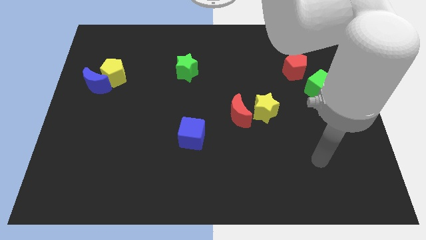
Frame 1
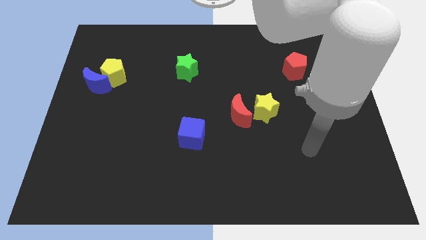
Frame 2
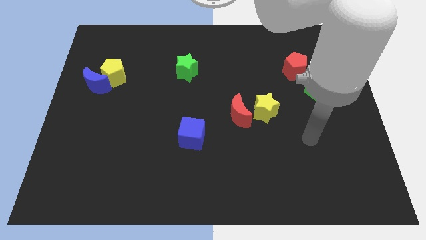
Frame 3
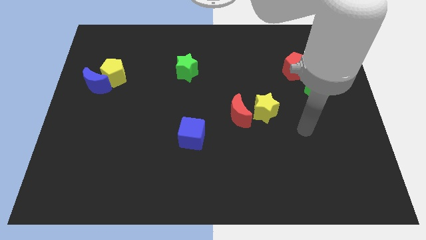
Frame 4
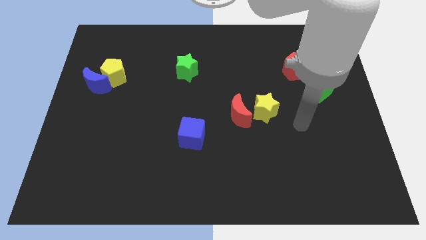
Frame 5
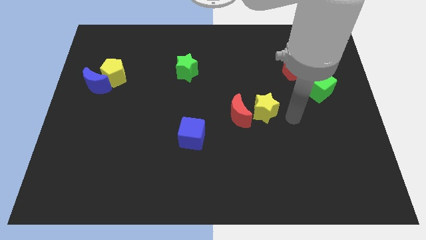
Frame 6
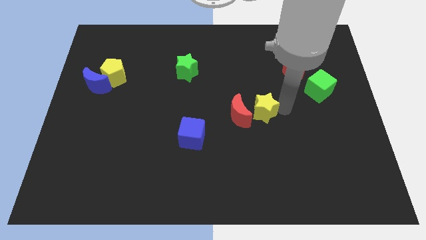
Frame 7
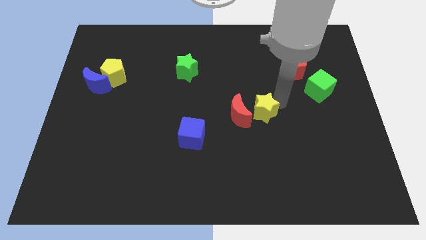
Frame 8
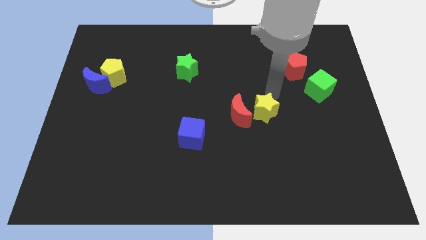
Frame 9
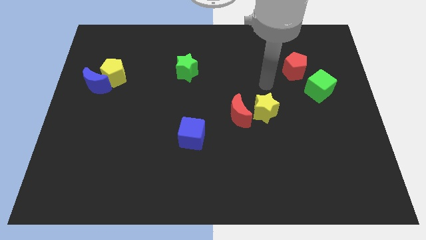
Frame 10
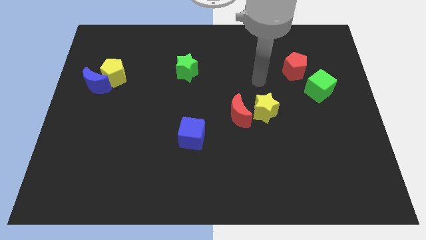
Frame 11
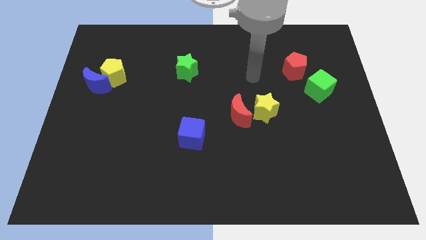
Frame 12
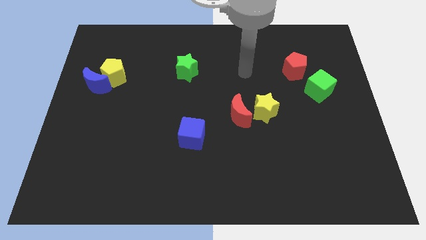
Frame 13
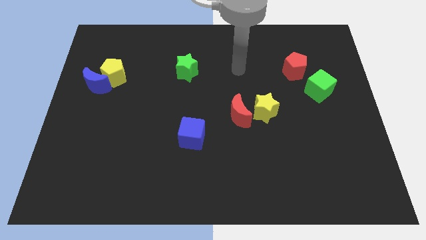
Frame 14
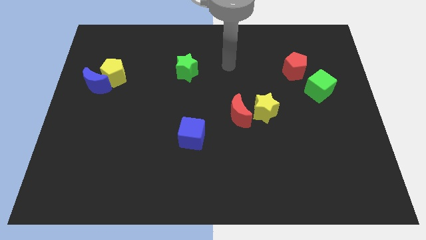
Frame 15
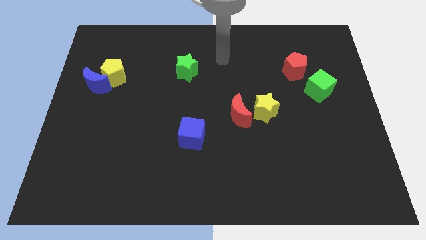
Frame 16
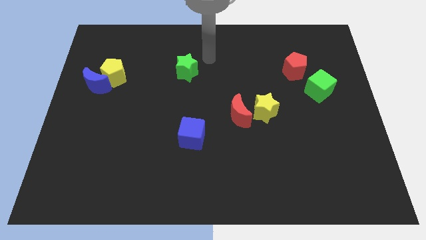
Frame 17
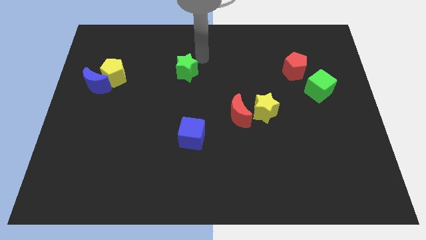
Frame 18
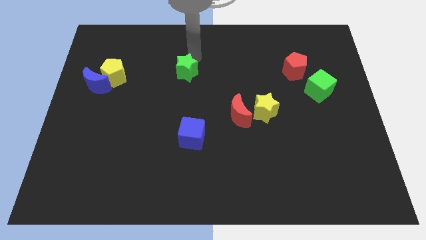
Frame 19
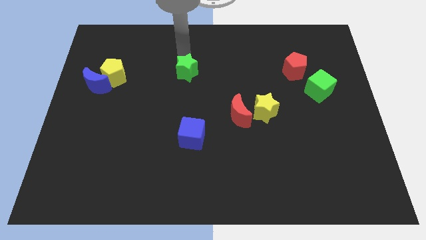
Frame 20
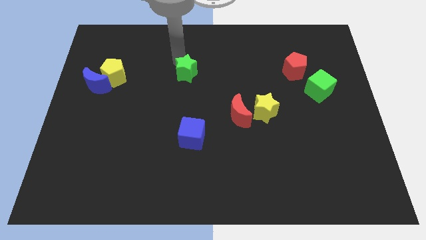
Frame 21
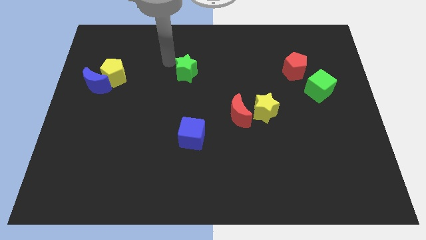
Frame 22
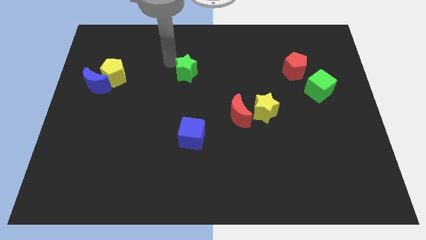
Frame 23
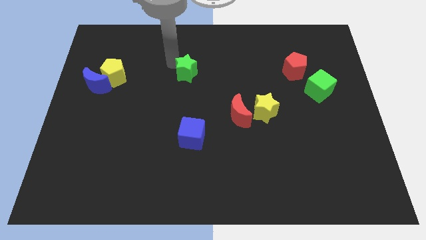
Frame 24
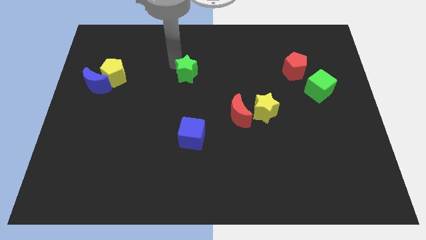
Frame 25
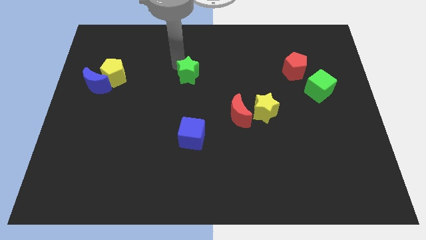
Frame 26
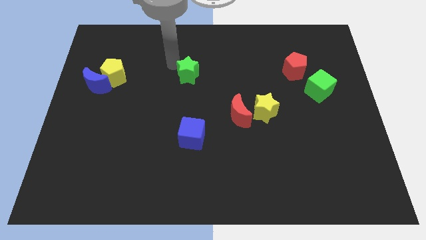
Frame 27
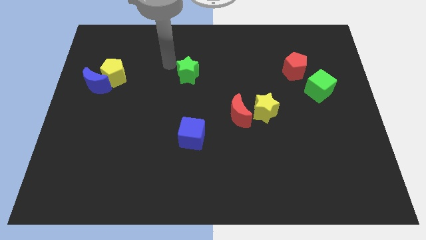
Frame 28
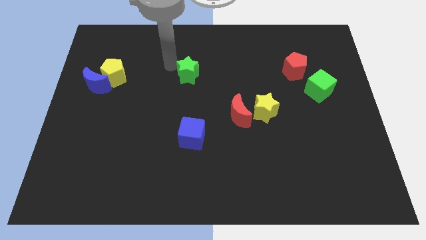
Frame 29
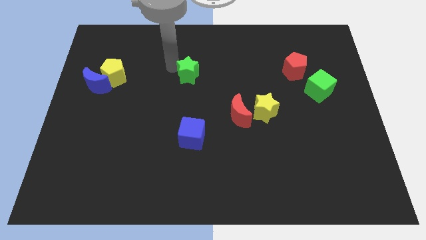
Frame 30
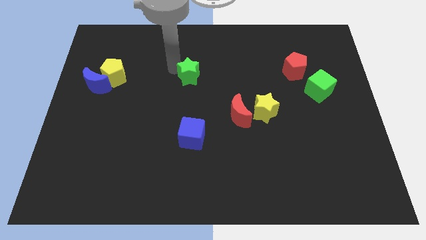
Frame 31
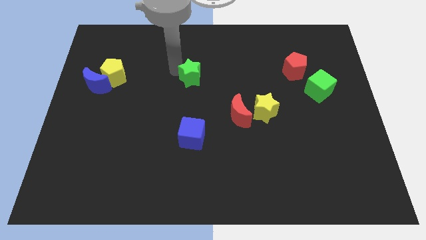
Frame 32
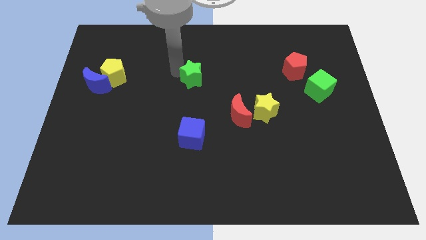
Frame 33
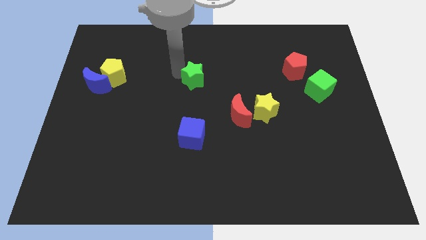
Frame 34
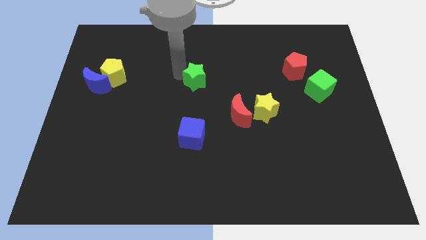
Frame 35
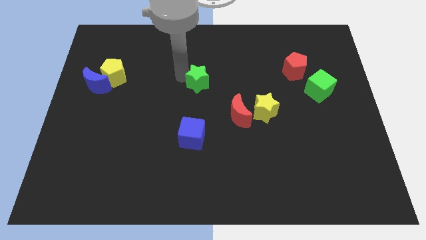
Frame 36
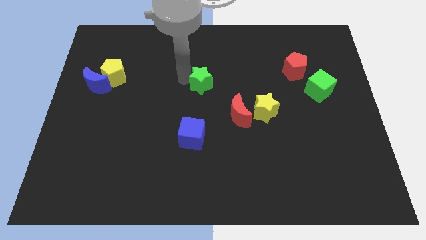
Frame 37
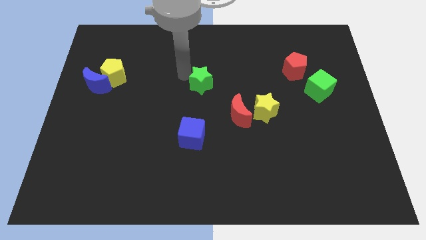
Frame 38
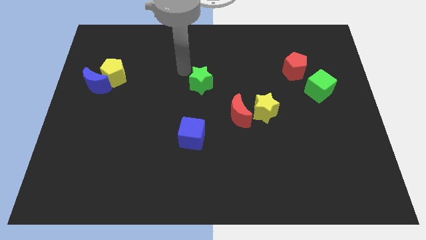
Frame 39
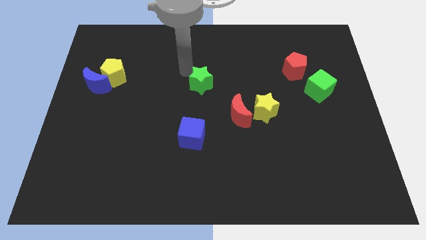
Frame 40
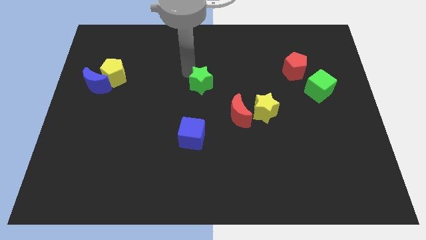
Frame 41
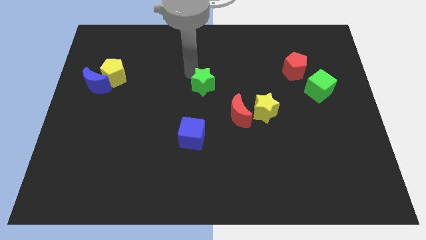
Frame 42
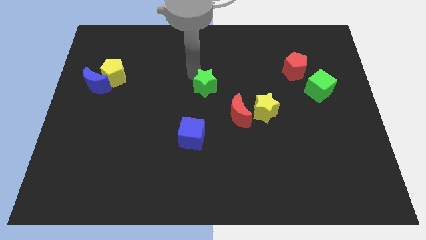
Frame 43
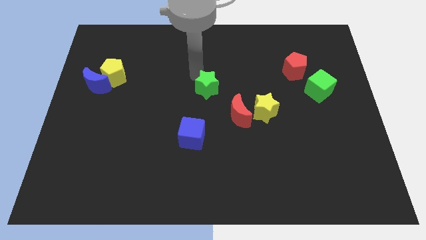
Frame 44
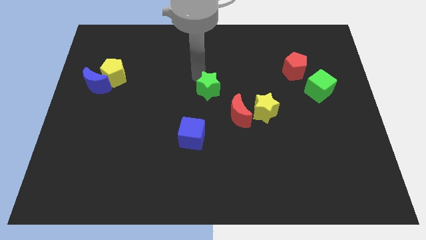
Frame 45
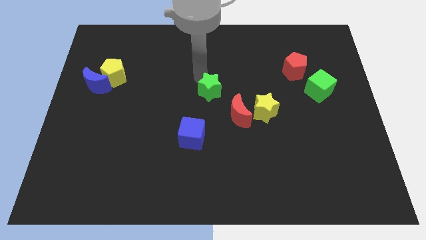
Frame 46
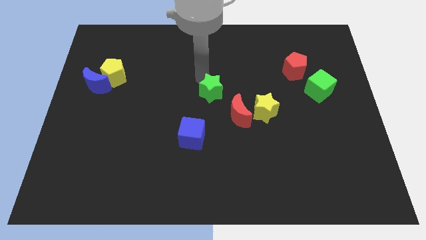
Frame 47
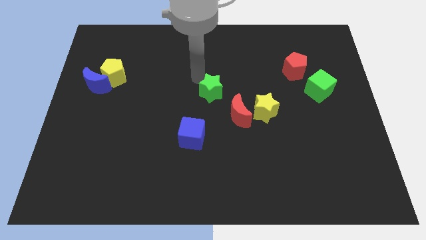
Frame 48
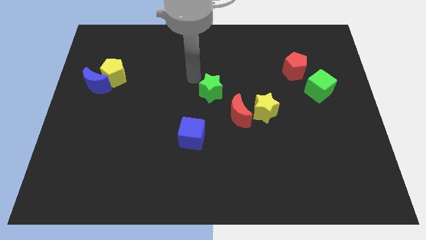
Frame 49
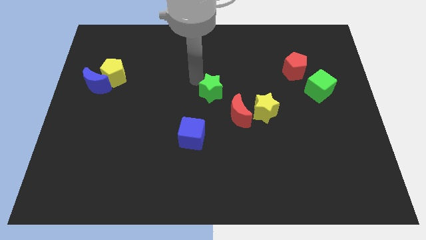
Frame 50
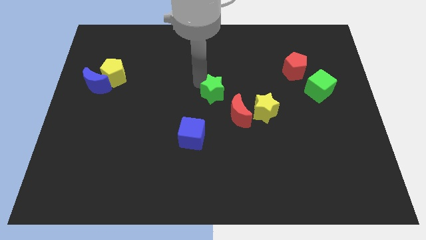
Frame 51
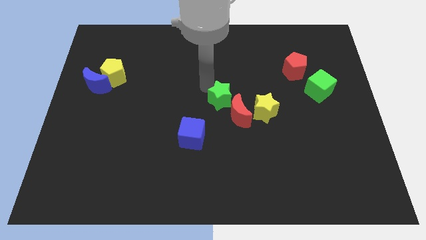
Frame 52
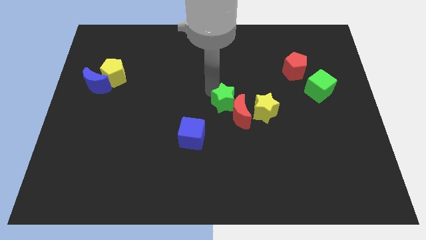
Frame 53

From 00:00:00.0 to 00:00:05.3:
push the green star towards the red moon

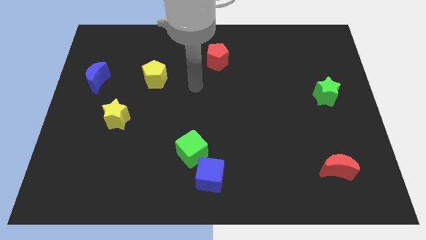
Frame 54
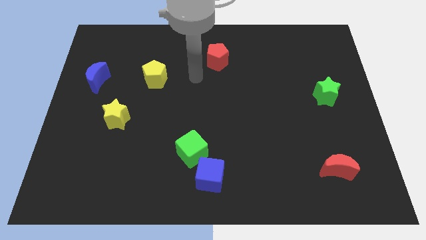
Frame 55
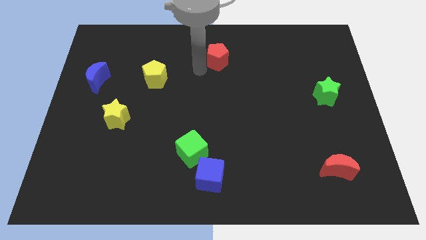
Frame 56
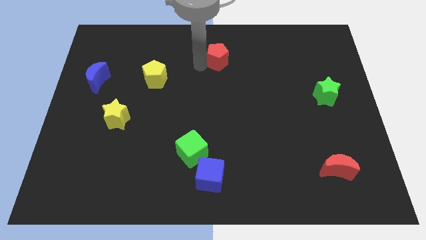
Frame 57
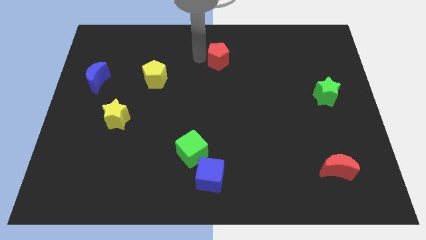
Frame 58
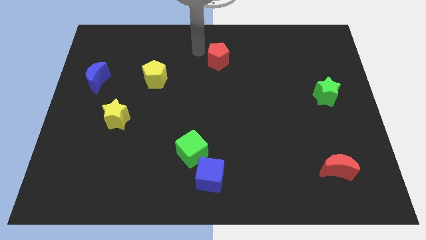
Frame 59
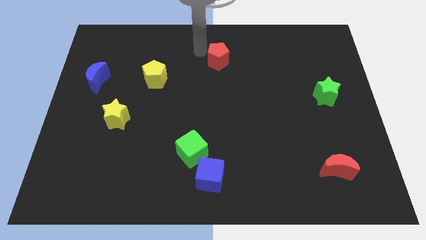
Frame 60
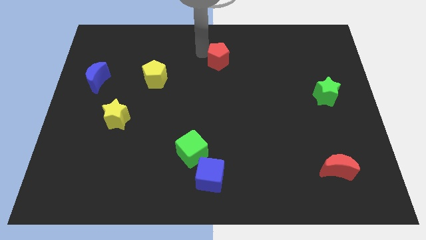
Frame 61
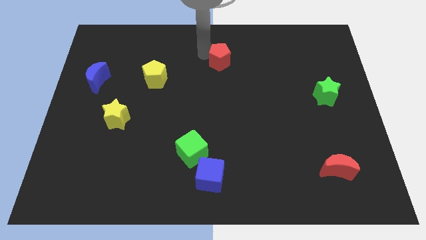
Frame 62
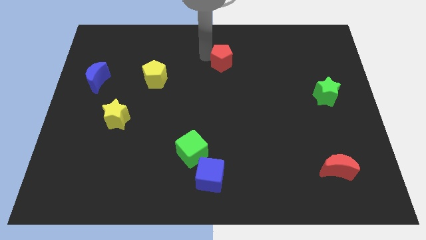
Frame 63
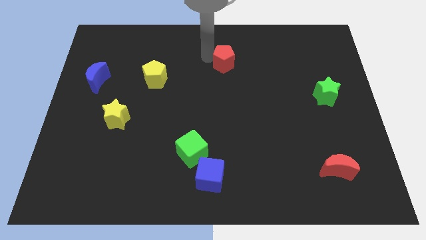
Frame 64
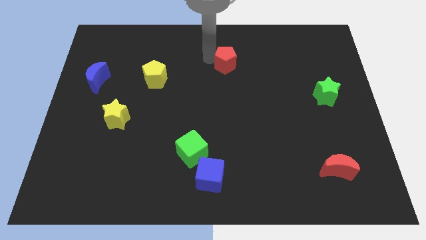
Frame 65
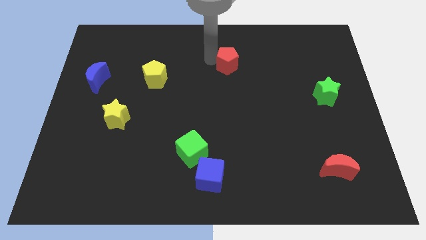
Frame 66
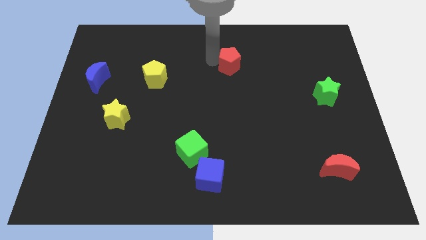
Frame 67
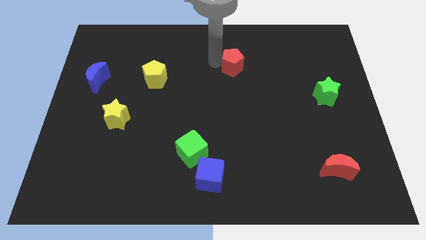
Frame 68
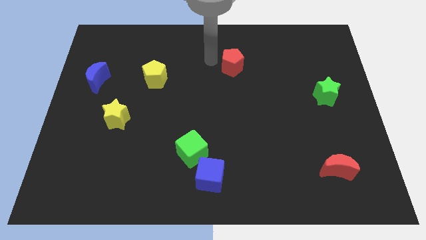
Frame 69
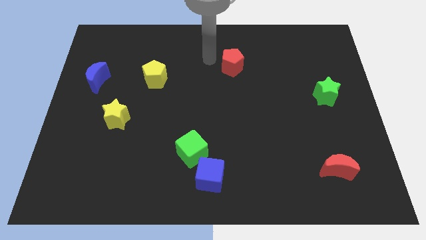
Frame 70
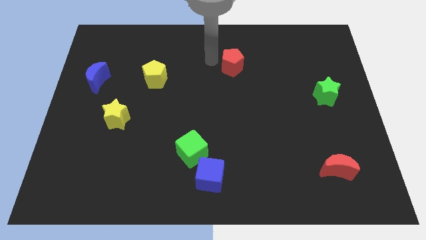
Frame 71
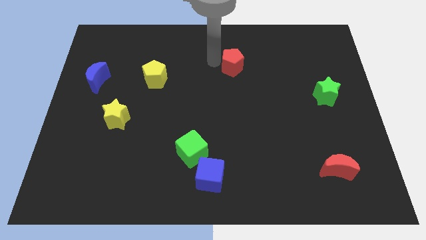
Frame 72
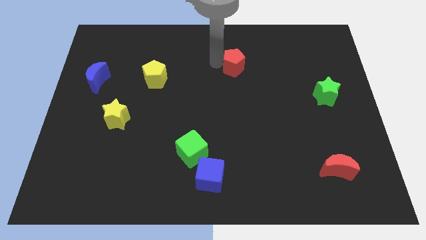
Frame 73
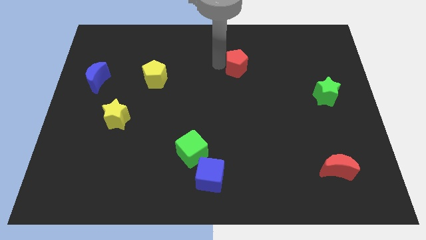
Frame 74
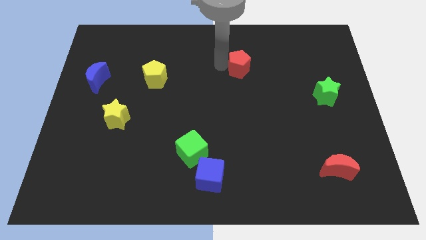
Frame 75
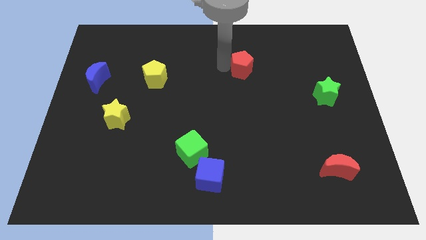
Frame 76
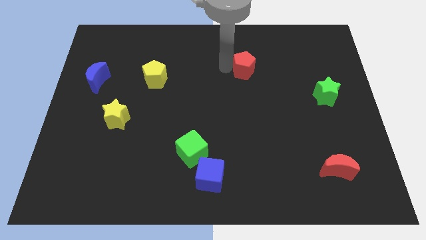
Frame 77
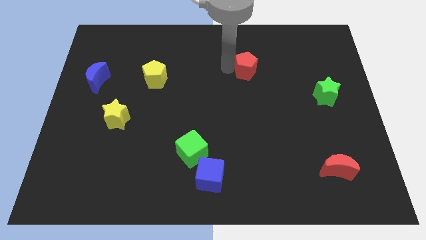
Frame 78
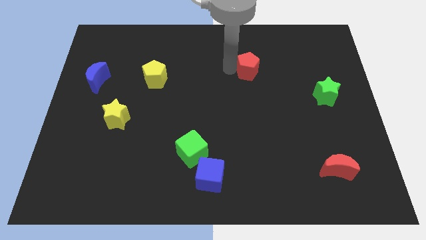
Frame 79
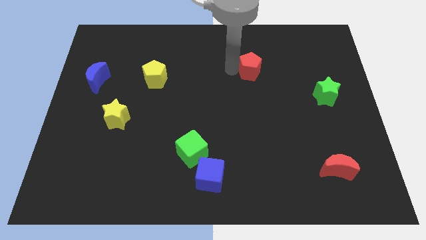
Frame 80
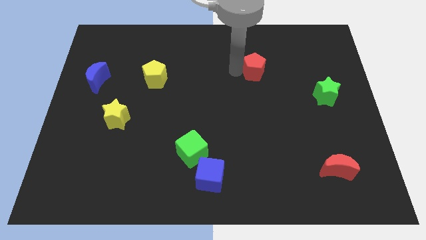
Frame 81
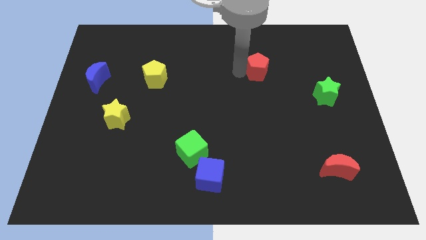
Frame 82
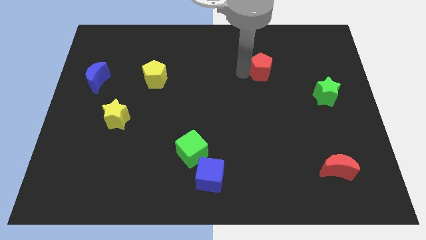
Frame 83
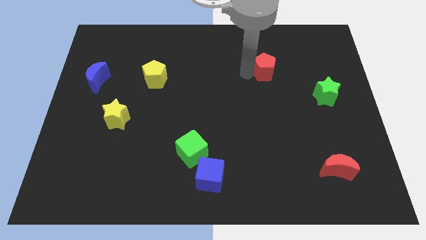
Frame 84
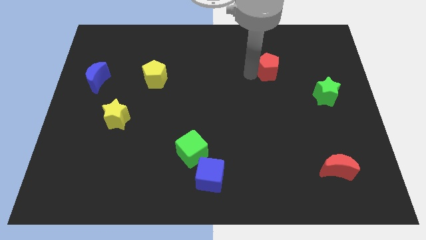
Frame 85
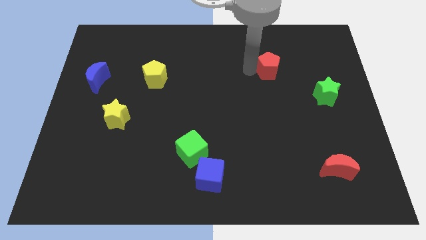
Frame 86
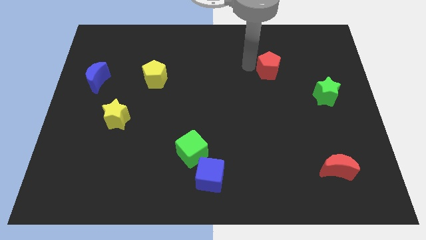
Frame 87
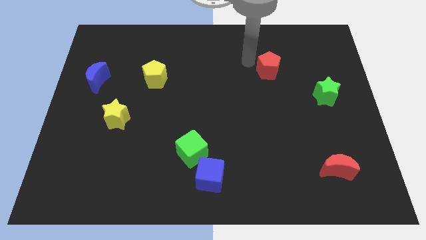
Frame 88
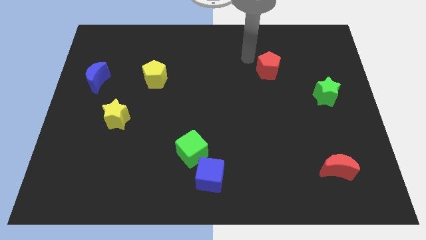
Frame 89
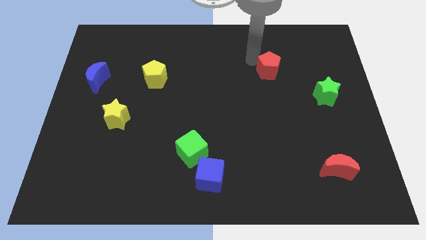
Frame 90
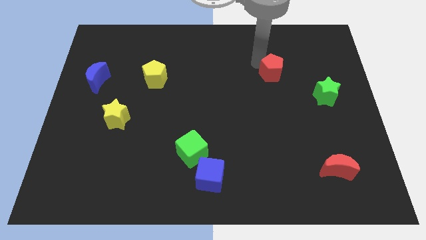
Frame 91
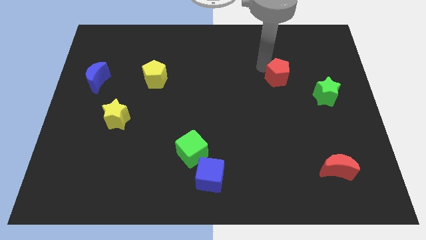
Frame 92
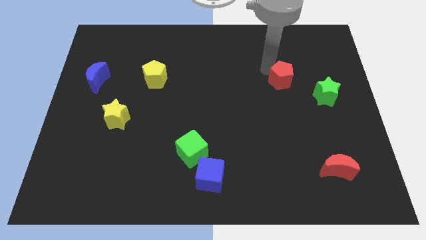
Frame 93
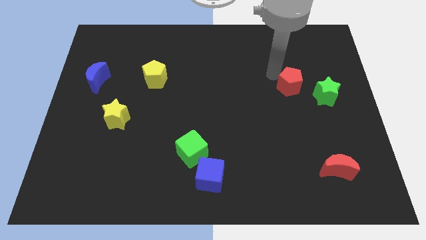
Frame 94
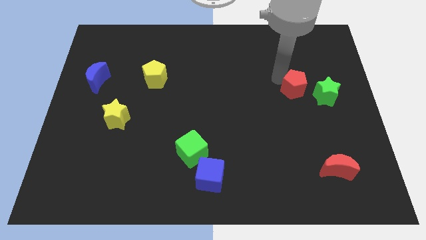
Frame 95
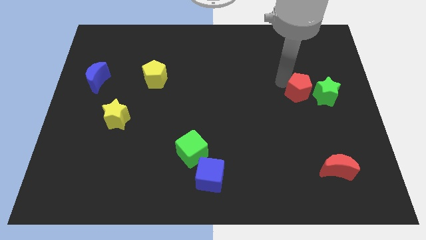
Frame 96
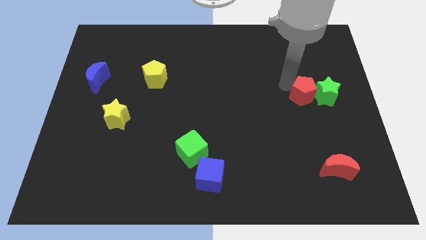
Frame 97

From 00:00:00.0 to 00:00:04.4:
slide the red pentagon towards the green star
